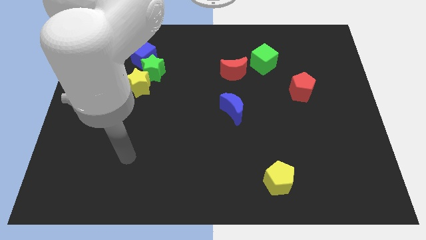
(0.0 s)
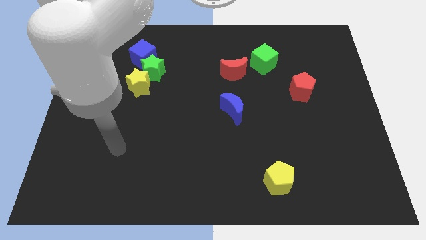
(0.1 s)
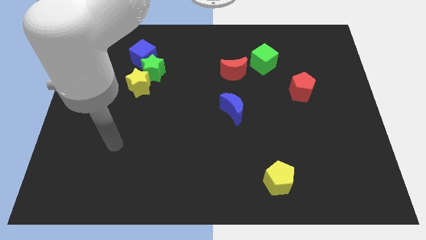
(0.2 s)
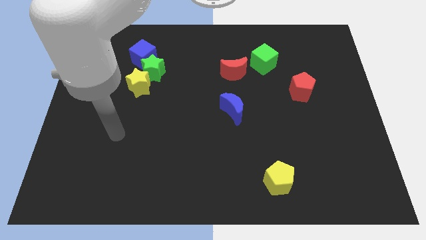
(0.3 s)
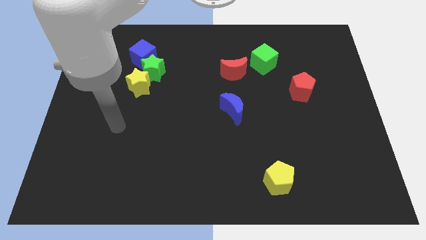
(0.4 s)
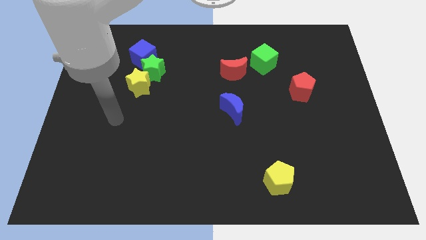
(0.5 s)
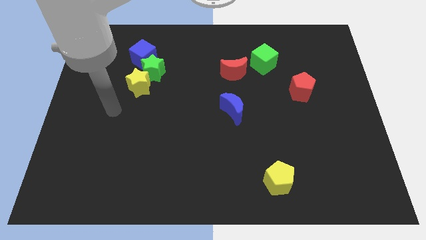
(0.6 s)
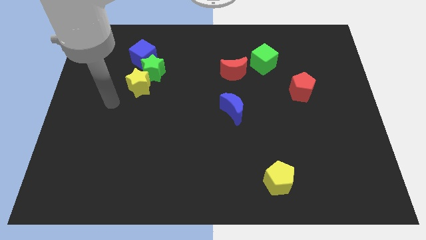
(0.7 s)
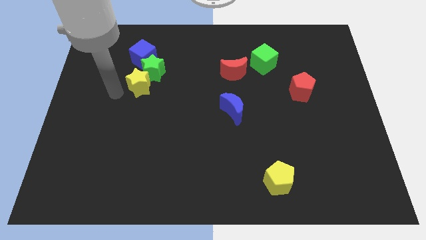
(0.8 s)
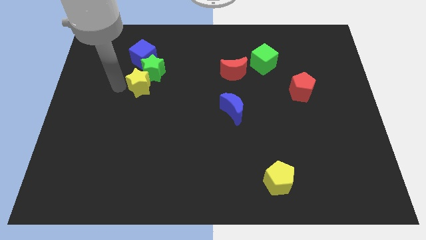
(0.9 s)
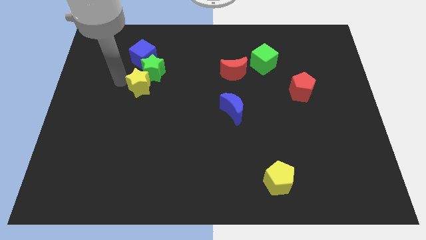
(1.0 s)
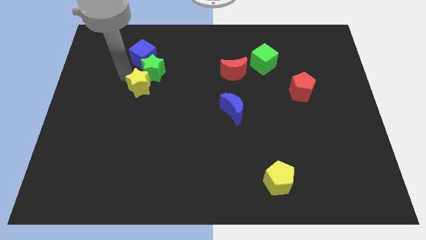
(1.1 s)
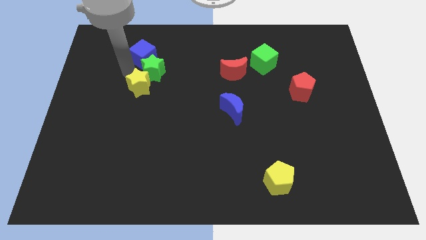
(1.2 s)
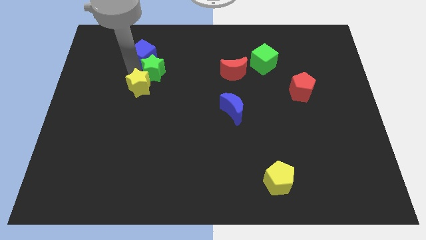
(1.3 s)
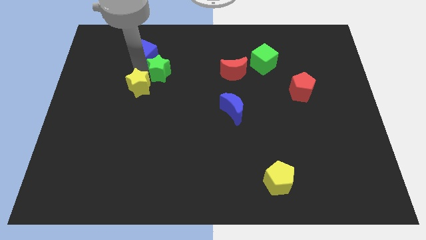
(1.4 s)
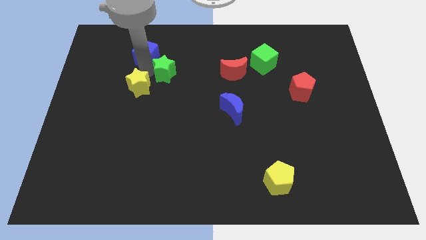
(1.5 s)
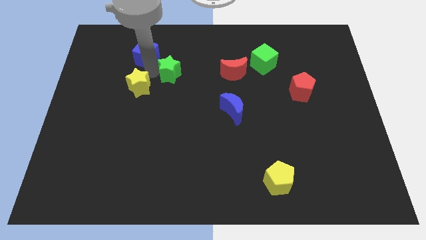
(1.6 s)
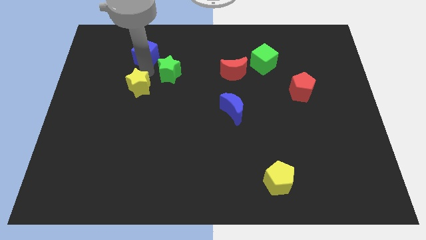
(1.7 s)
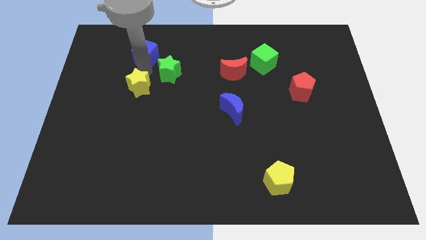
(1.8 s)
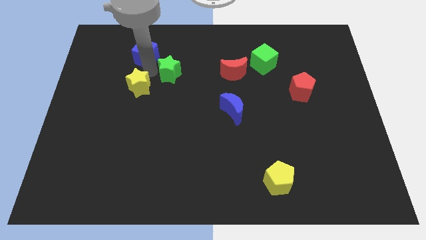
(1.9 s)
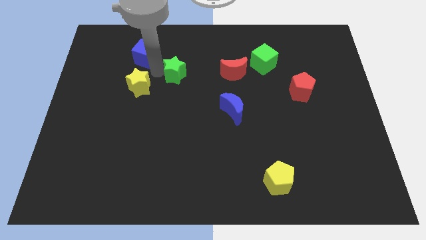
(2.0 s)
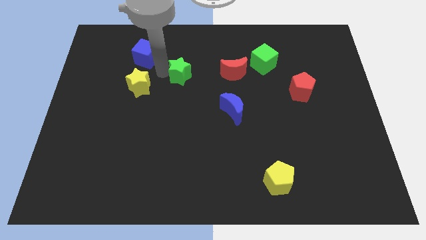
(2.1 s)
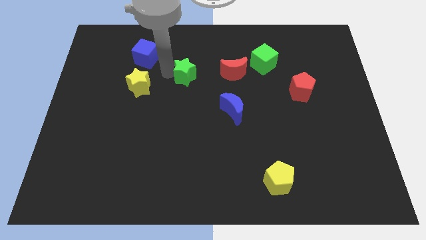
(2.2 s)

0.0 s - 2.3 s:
move the green star away from the blue cube and yellow star

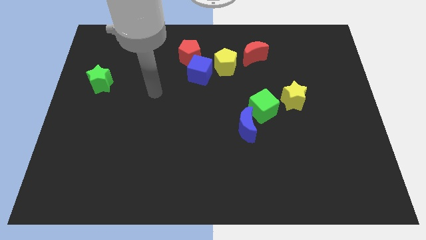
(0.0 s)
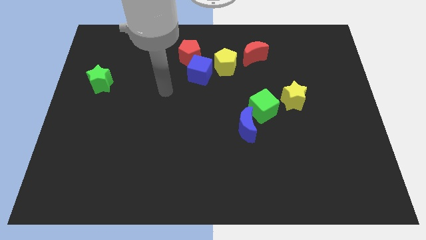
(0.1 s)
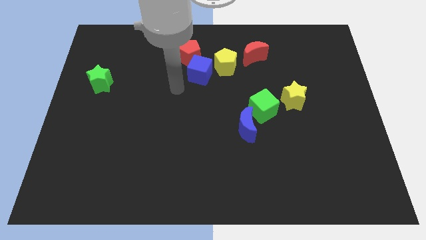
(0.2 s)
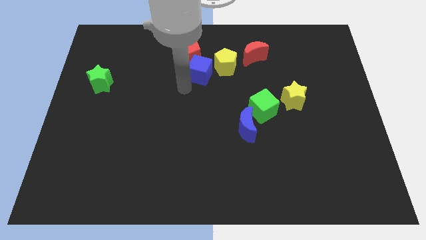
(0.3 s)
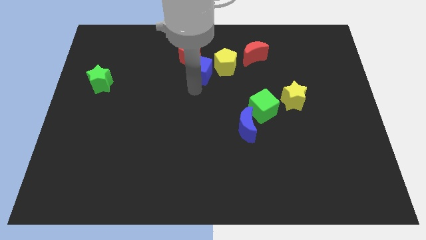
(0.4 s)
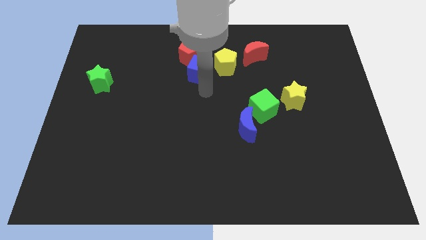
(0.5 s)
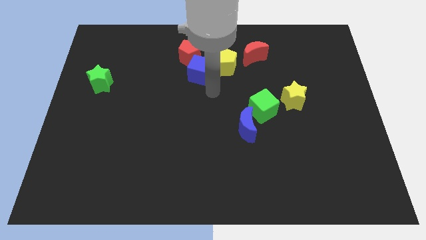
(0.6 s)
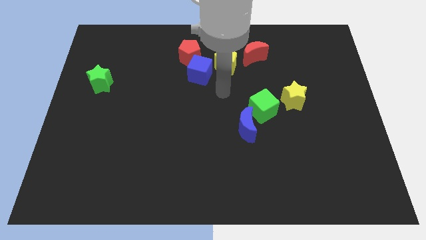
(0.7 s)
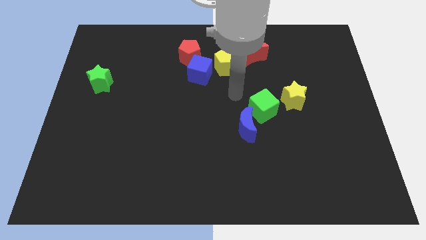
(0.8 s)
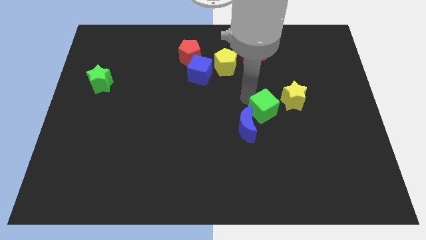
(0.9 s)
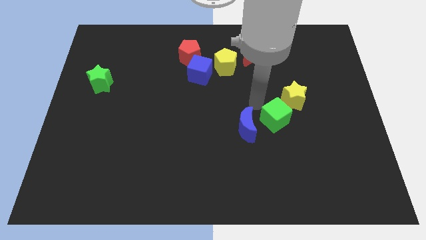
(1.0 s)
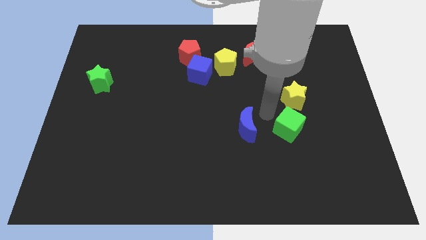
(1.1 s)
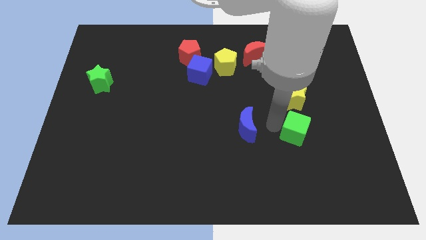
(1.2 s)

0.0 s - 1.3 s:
separate the blue moon from the green cube

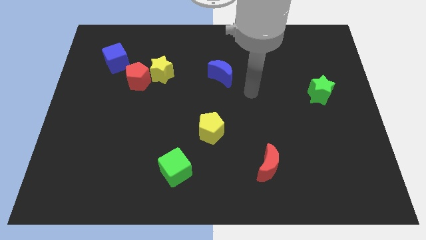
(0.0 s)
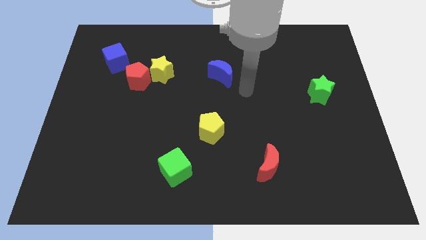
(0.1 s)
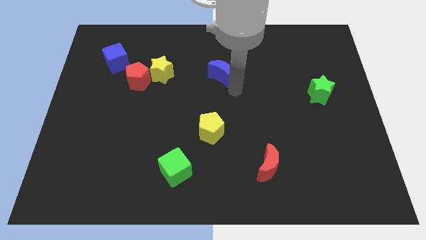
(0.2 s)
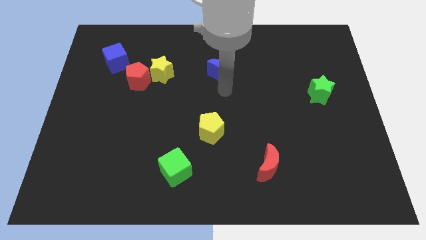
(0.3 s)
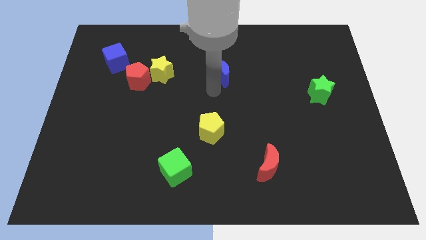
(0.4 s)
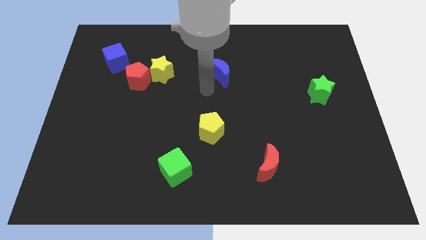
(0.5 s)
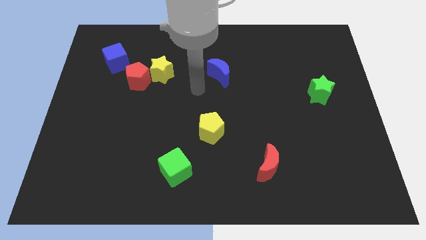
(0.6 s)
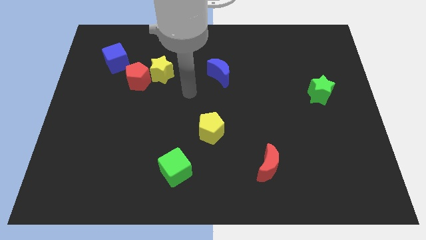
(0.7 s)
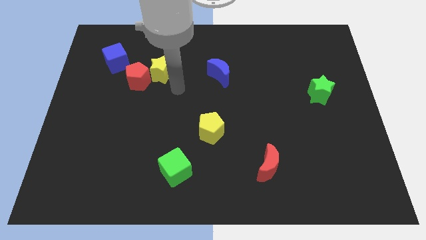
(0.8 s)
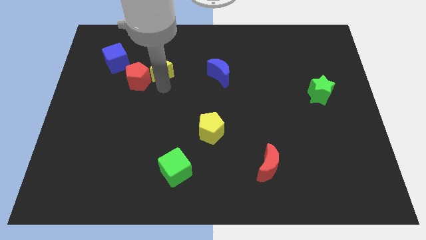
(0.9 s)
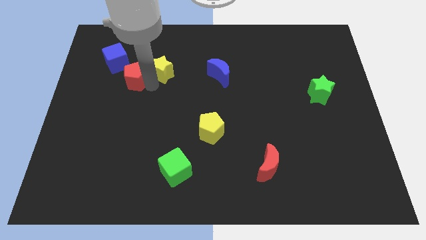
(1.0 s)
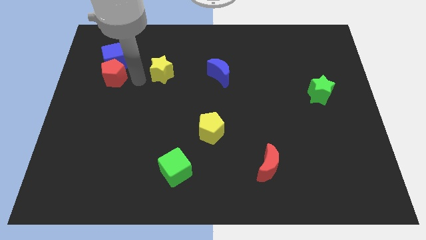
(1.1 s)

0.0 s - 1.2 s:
pull the yellow star apart from the red pentagon

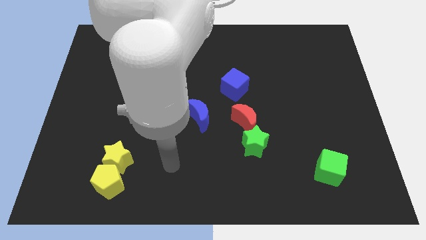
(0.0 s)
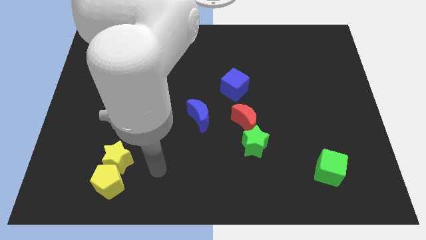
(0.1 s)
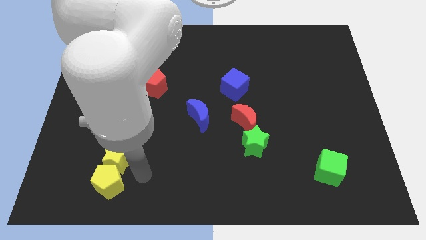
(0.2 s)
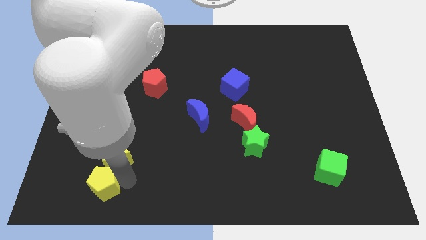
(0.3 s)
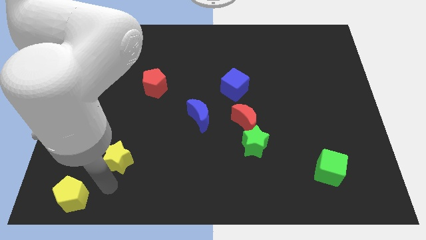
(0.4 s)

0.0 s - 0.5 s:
pull the yellow star apart from the yellow pentagon

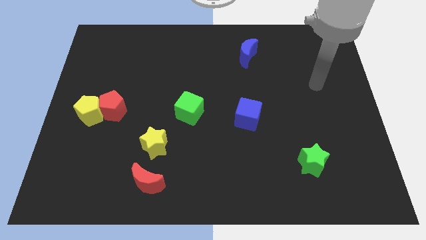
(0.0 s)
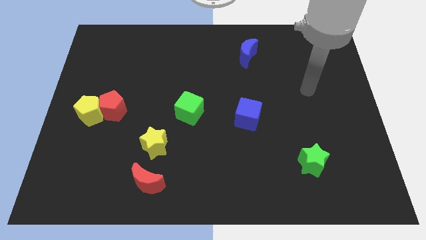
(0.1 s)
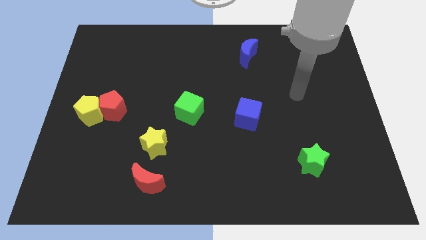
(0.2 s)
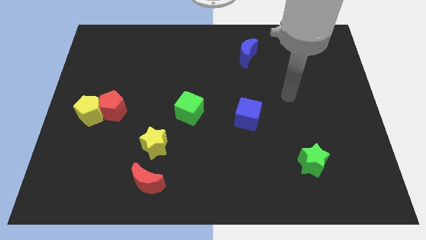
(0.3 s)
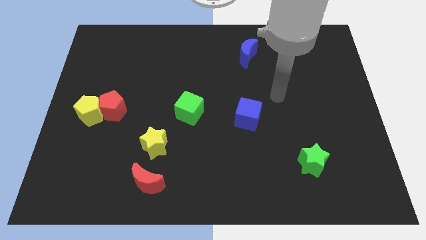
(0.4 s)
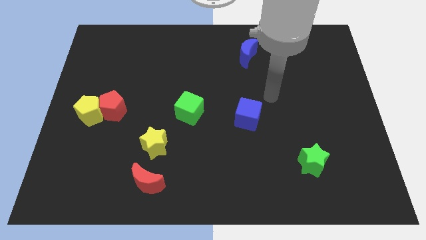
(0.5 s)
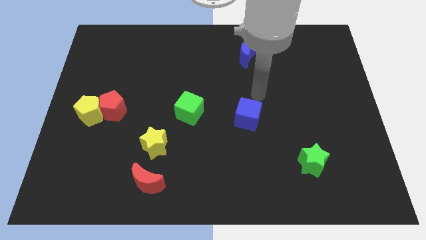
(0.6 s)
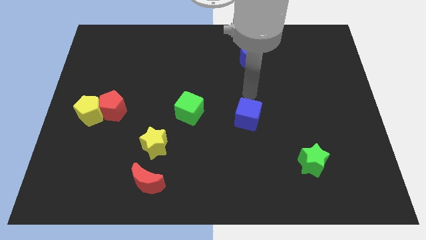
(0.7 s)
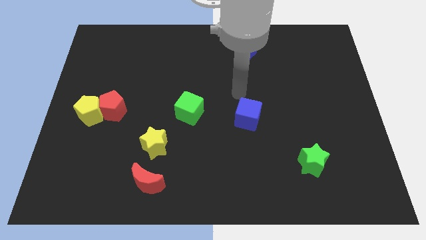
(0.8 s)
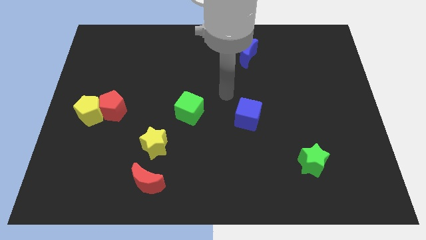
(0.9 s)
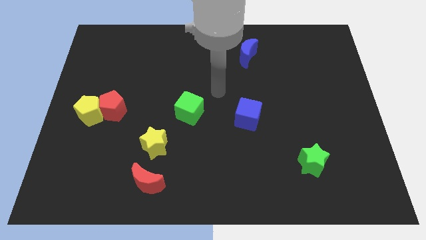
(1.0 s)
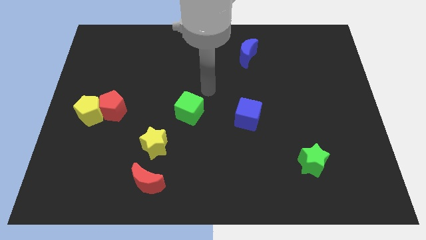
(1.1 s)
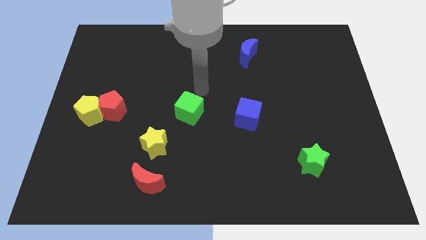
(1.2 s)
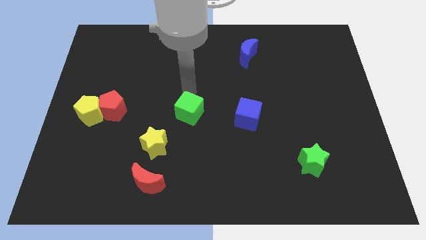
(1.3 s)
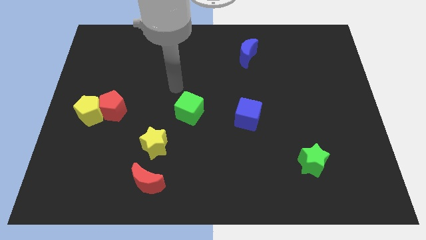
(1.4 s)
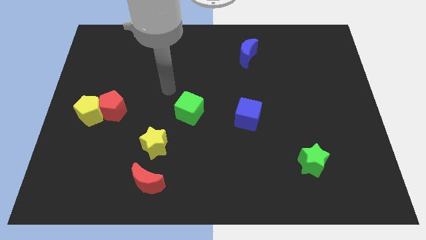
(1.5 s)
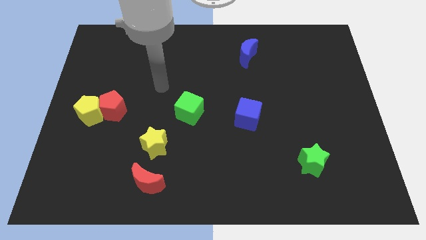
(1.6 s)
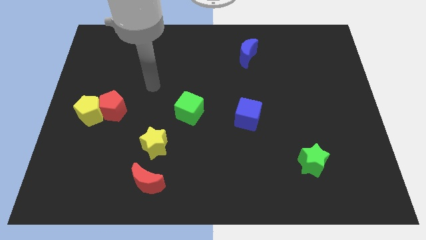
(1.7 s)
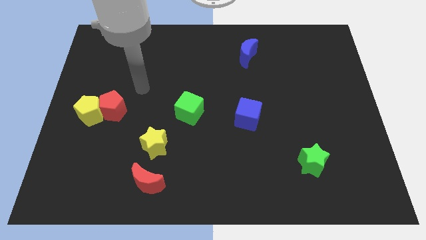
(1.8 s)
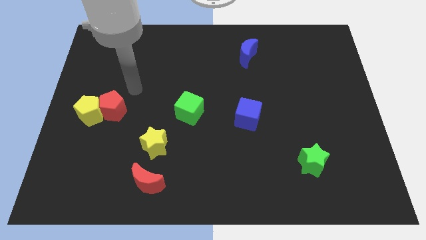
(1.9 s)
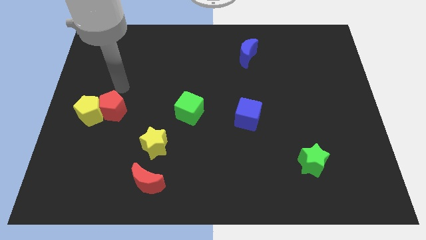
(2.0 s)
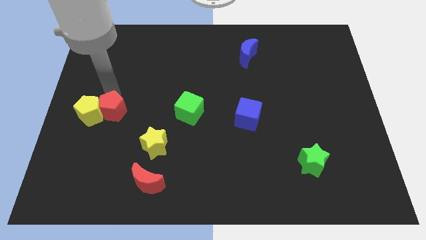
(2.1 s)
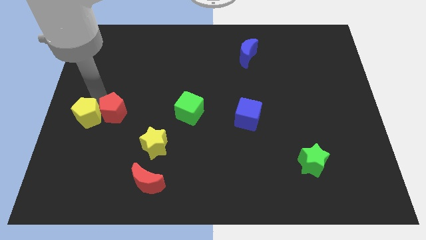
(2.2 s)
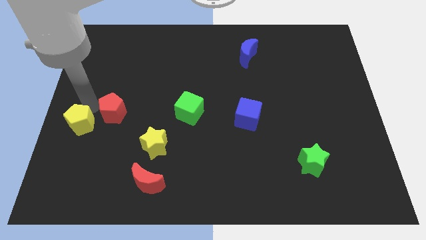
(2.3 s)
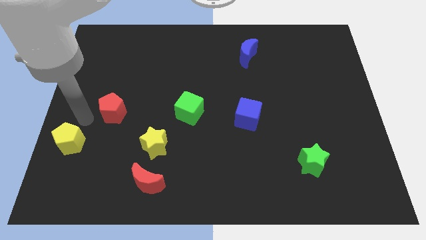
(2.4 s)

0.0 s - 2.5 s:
separate the red pentagon from the yellow pentagon

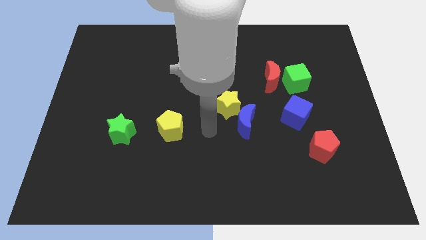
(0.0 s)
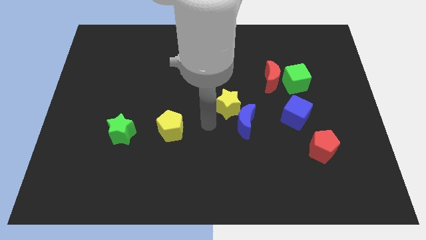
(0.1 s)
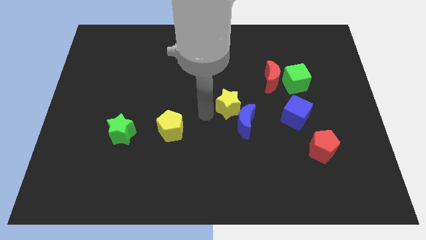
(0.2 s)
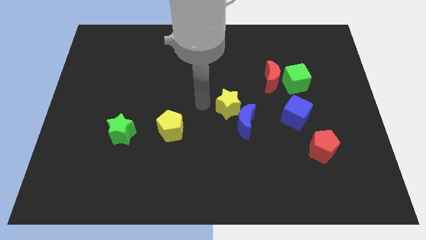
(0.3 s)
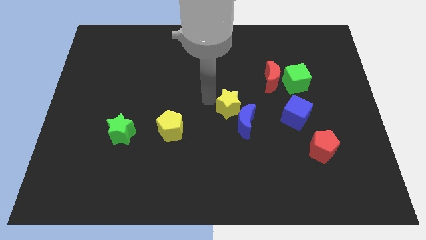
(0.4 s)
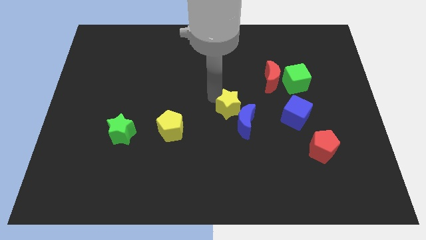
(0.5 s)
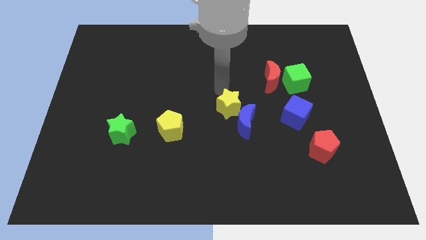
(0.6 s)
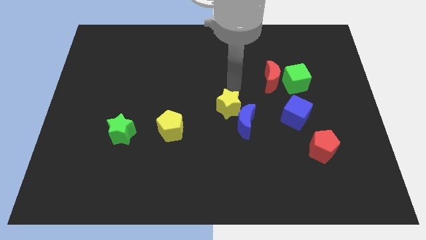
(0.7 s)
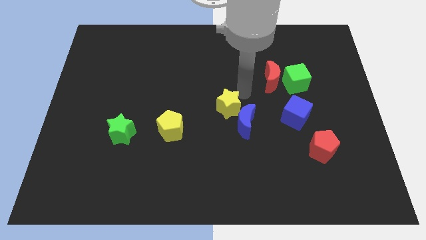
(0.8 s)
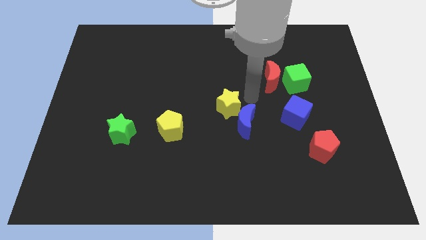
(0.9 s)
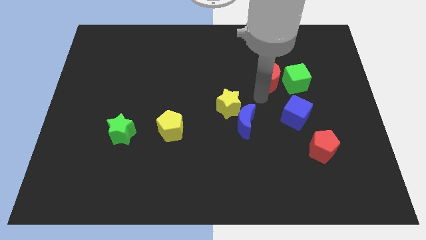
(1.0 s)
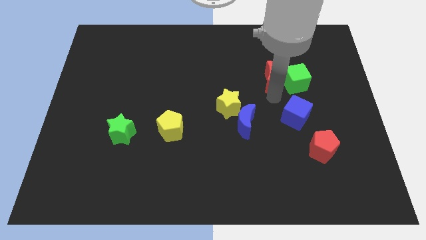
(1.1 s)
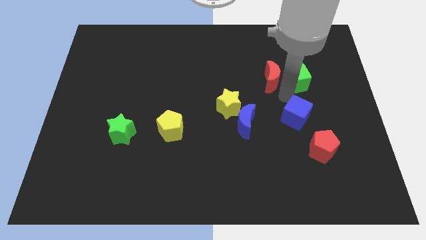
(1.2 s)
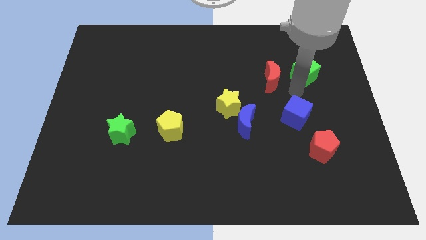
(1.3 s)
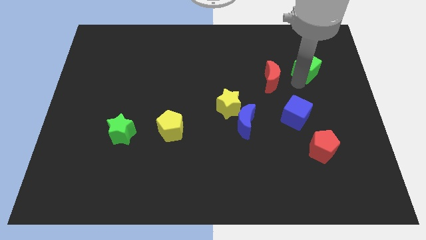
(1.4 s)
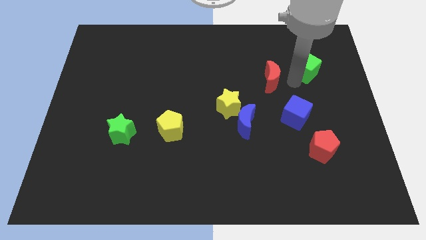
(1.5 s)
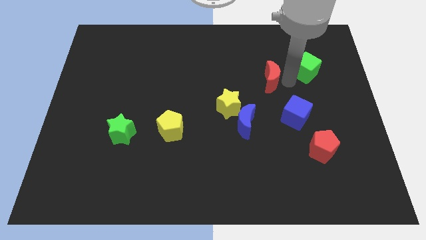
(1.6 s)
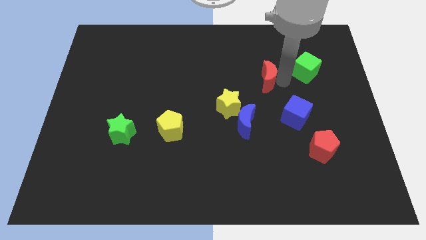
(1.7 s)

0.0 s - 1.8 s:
move the red moon away from the green cube
